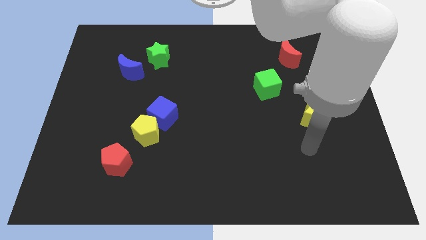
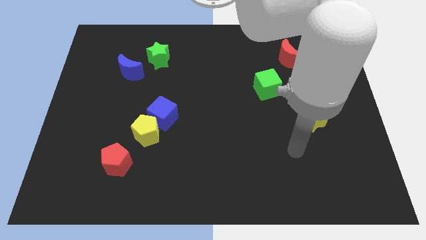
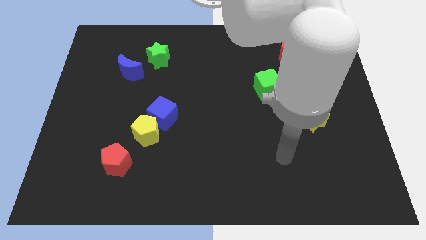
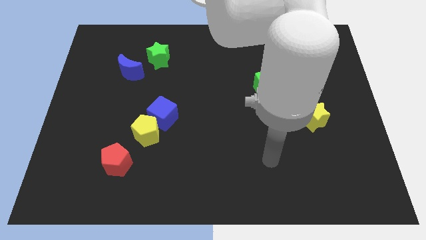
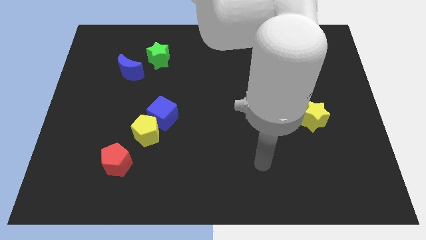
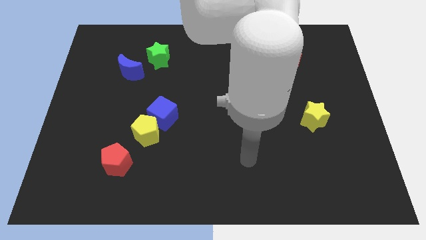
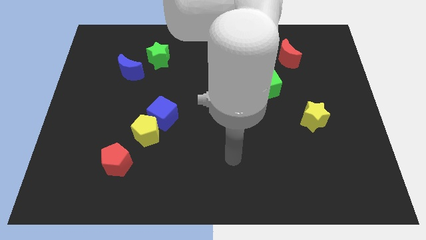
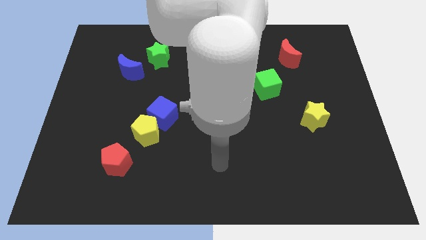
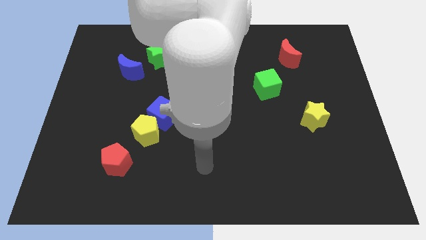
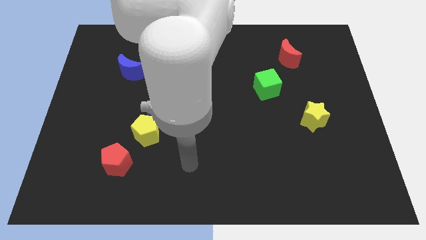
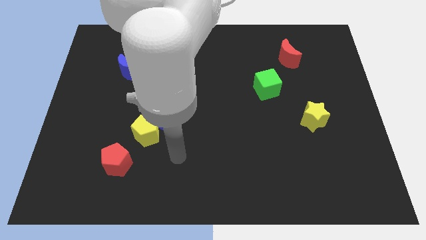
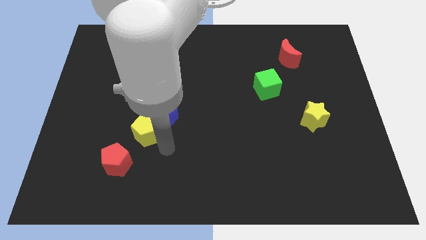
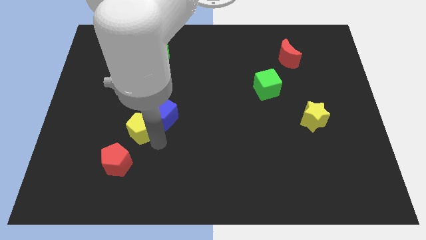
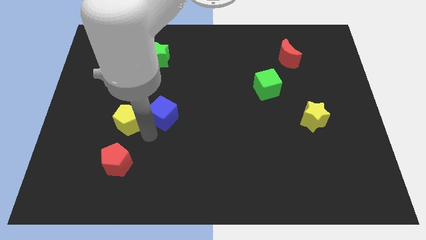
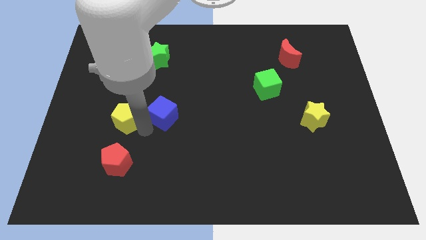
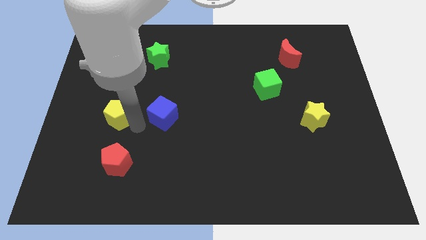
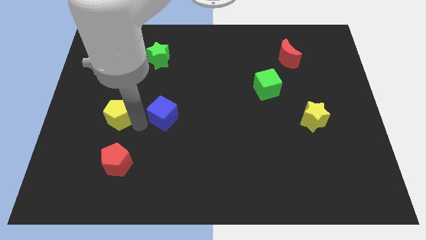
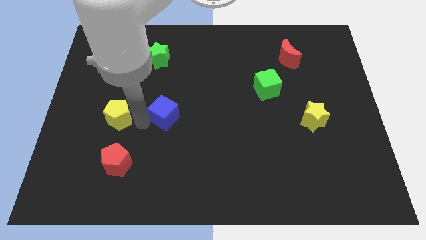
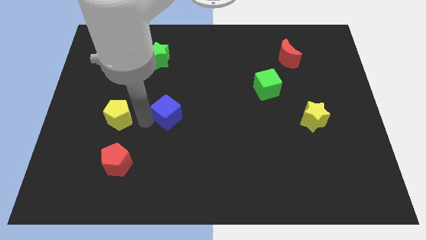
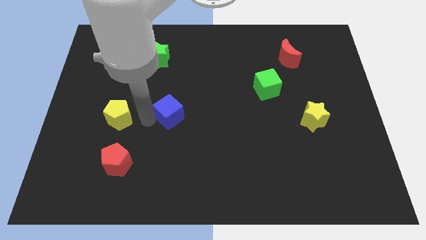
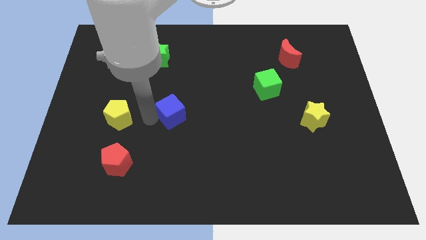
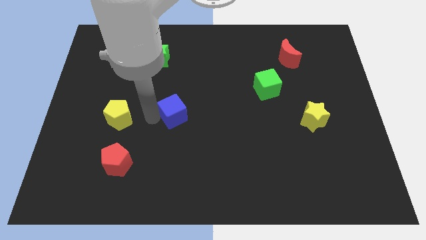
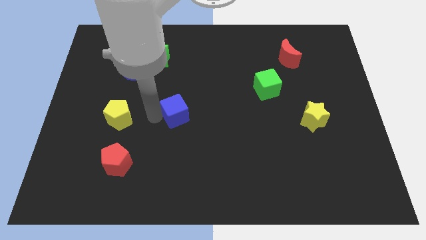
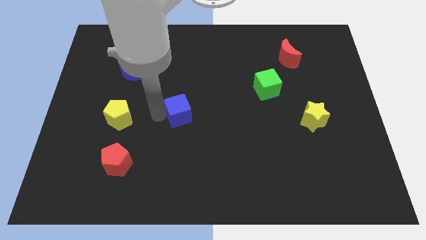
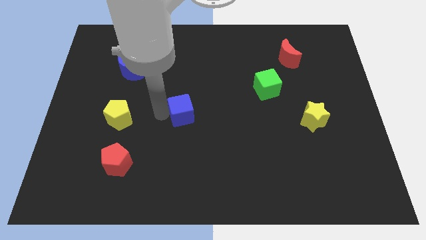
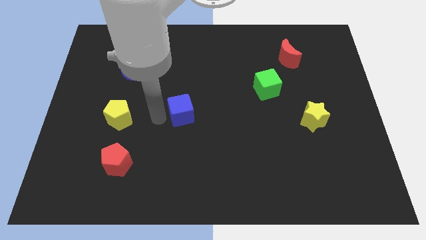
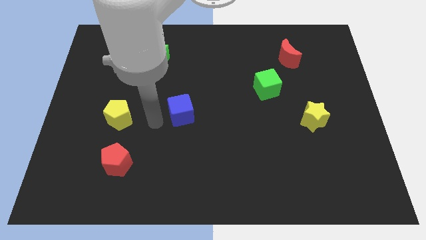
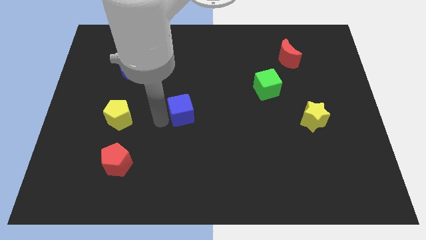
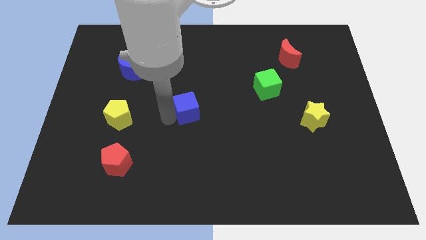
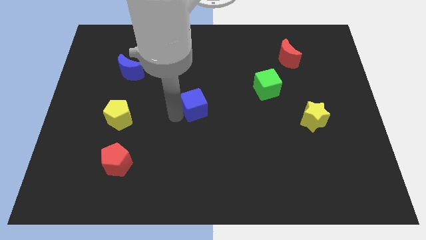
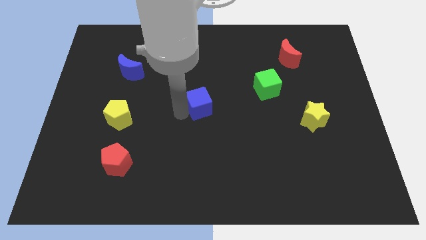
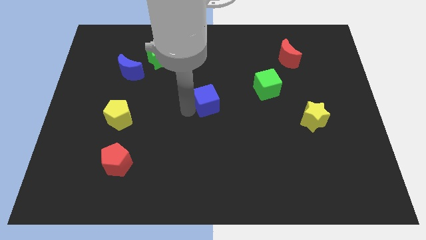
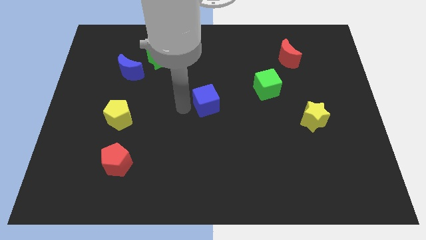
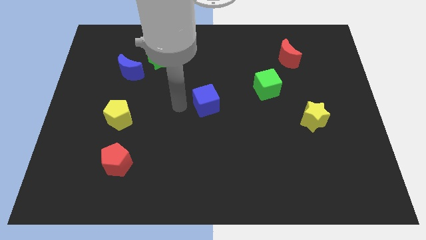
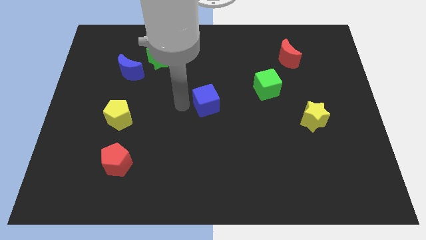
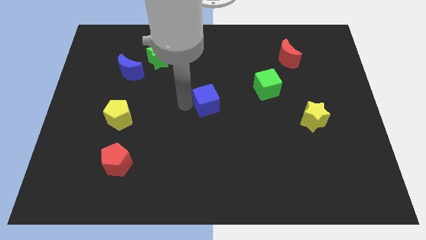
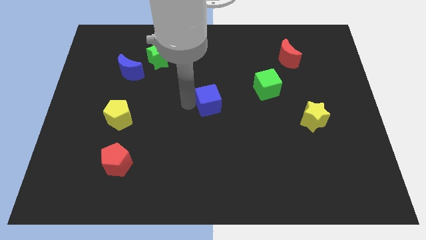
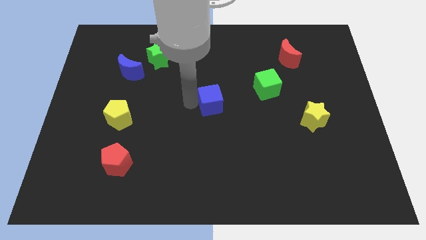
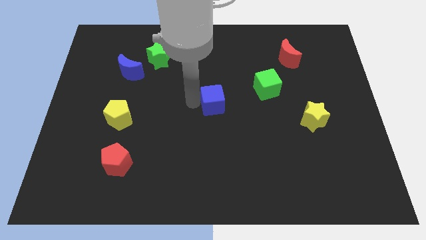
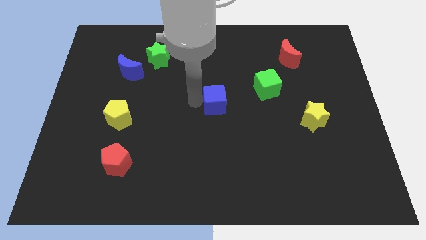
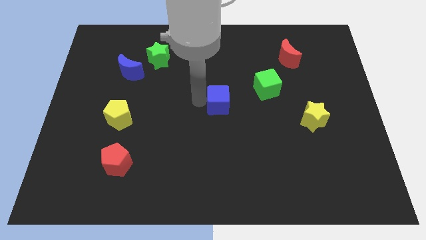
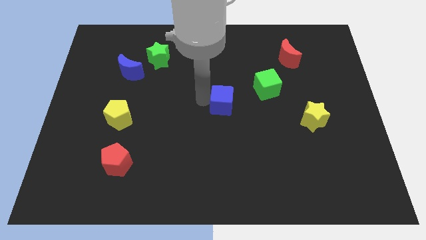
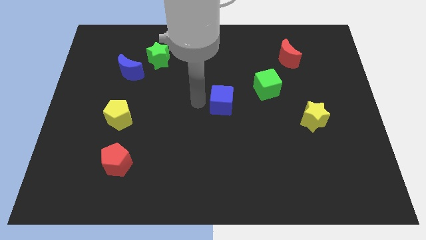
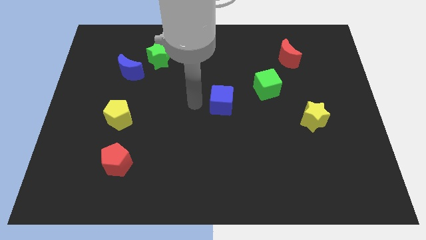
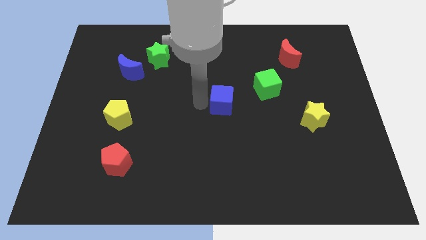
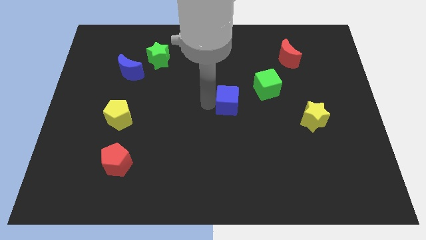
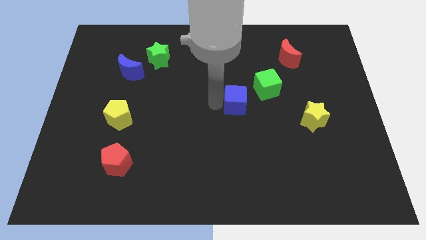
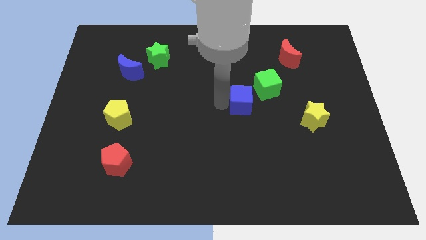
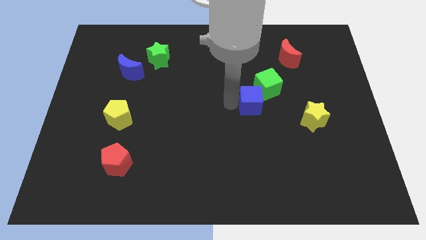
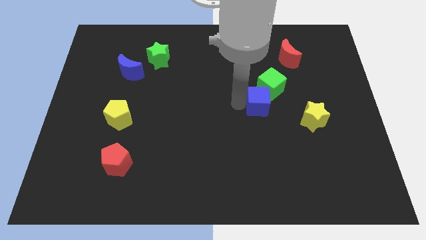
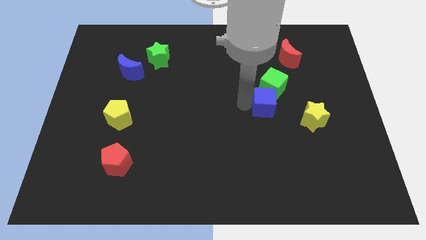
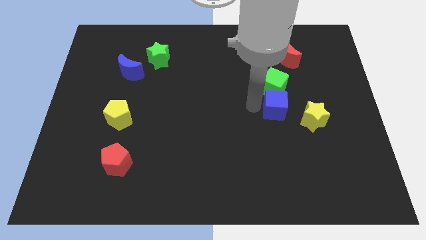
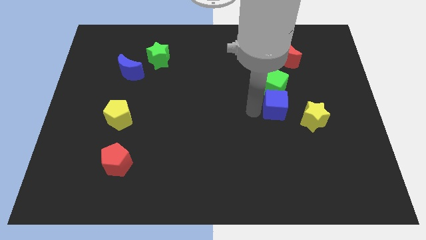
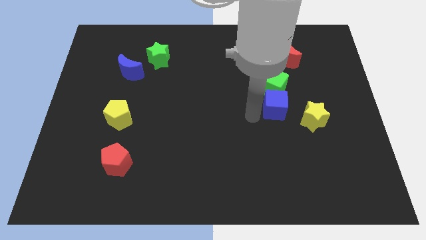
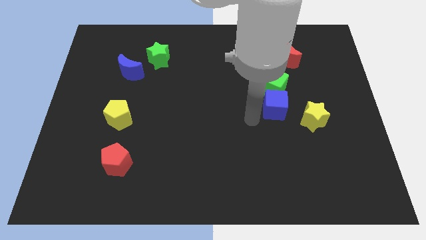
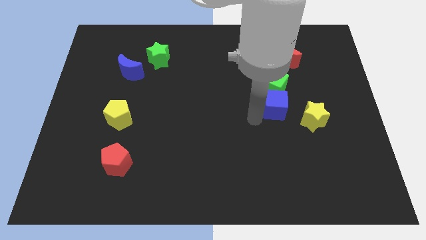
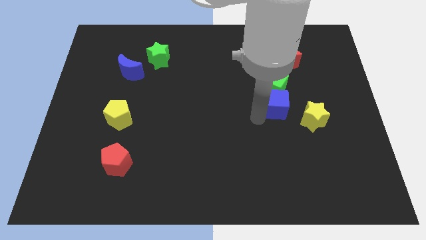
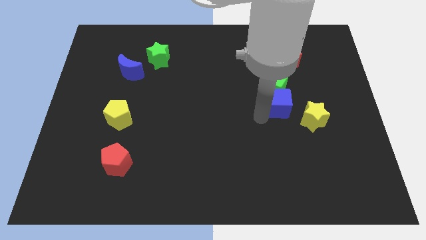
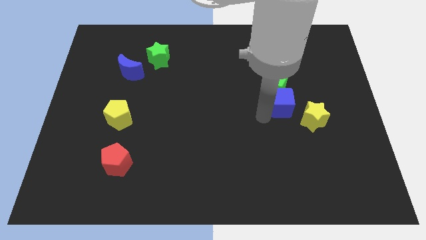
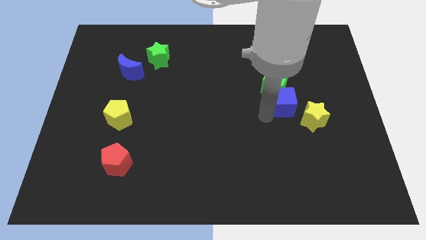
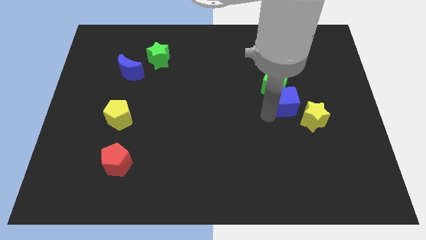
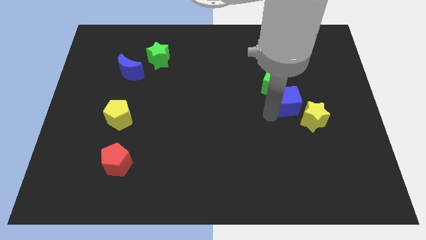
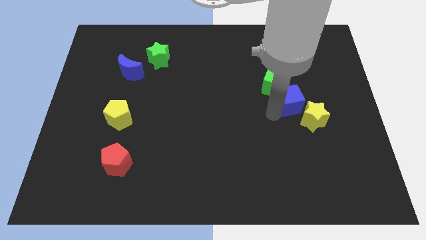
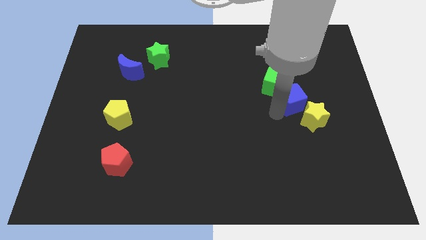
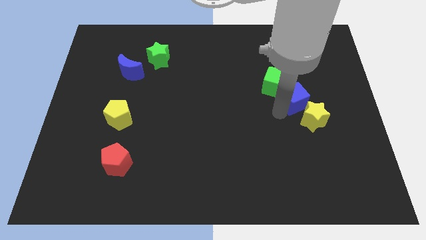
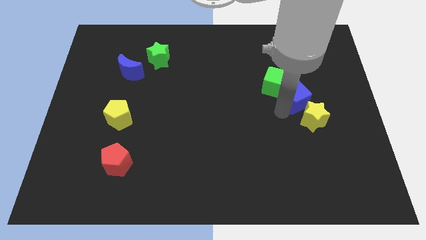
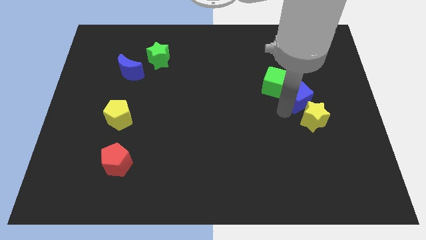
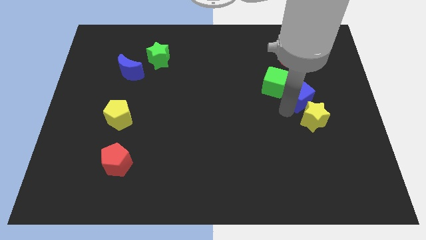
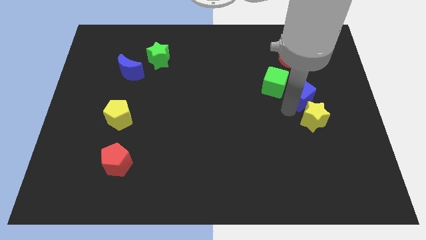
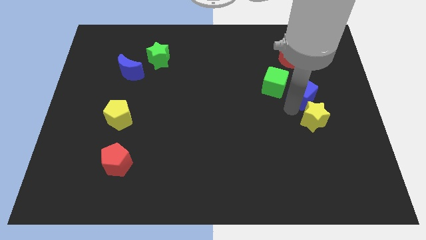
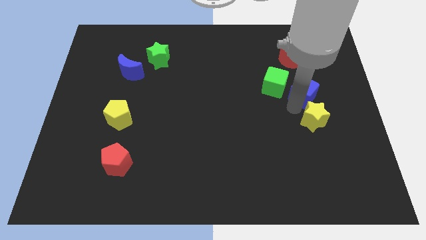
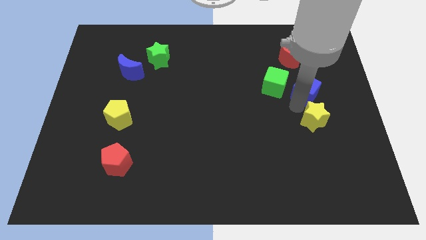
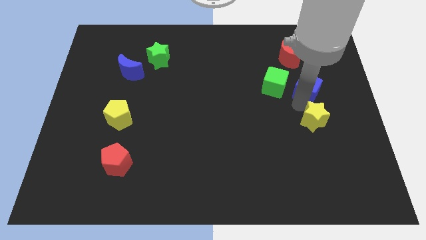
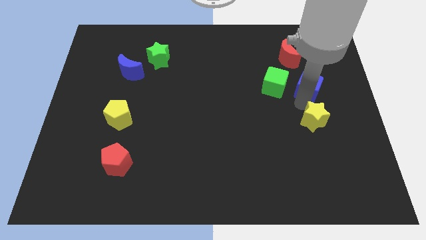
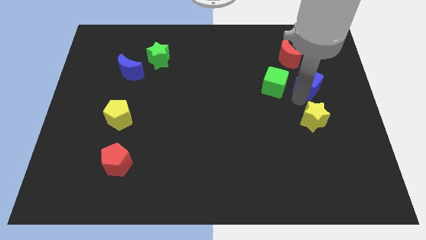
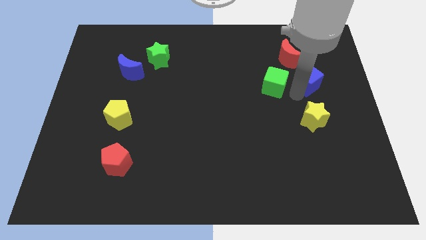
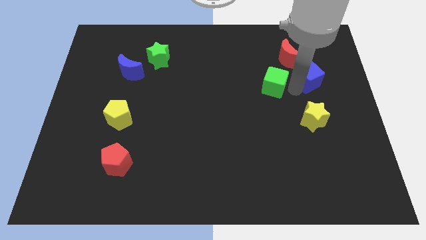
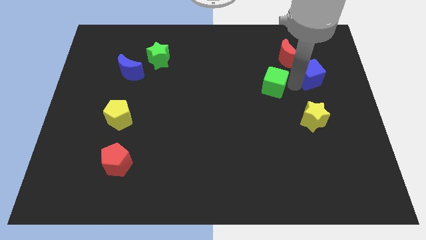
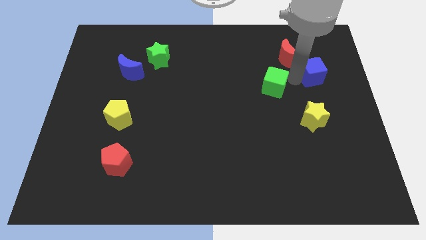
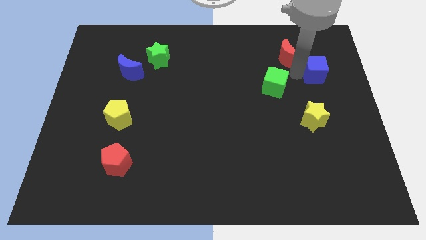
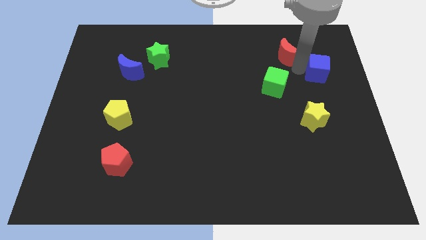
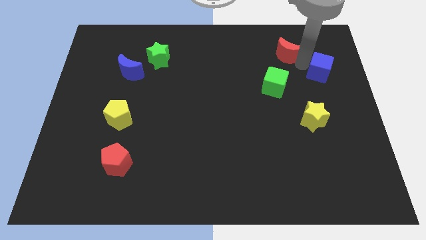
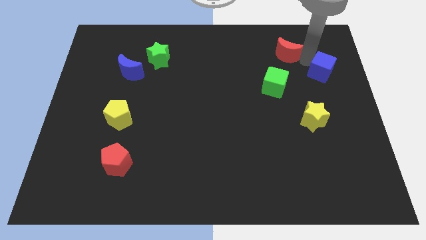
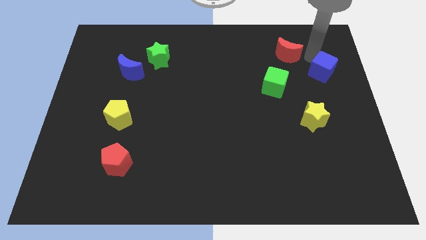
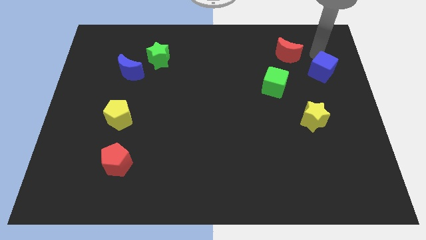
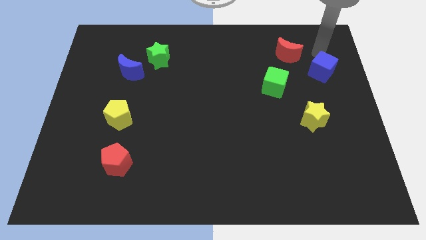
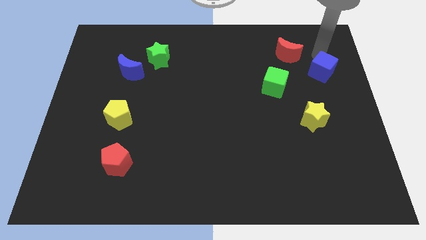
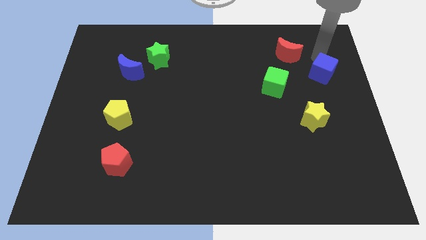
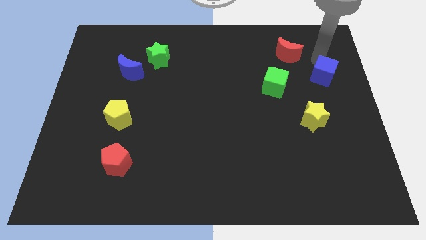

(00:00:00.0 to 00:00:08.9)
slide the blue cube to the right side of the board
